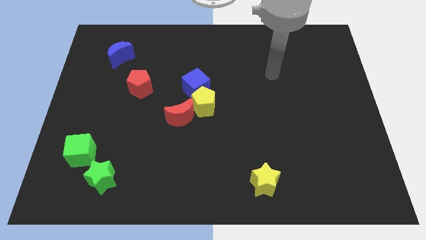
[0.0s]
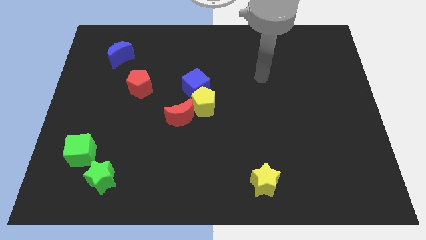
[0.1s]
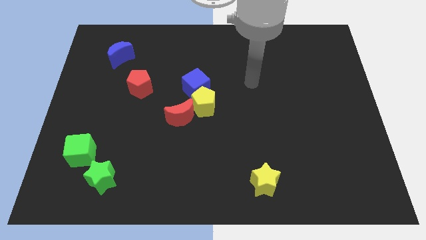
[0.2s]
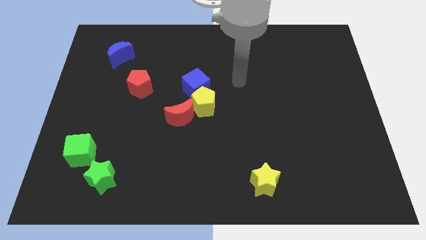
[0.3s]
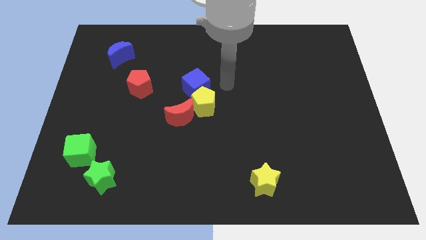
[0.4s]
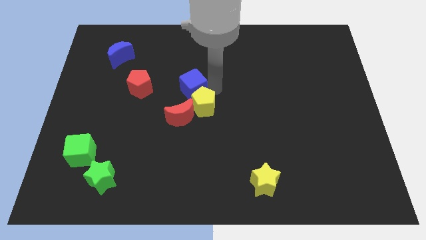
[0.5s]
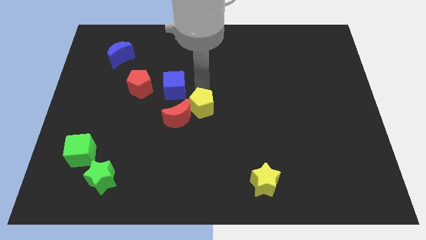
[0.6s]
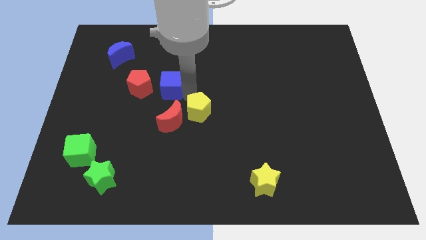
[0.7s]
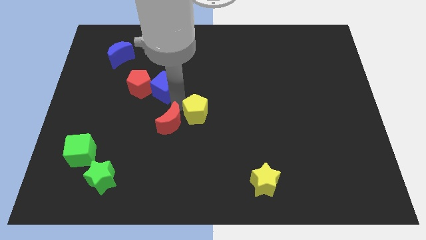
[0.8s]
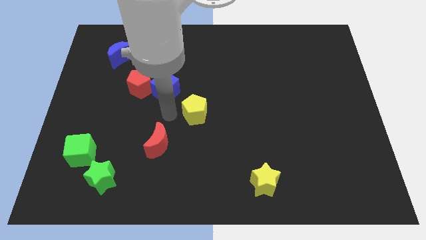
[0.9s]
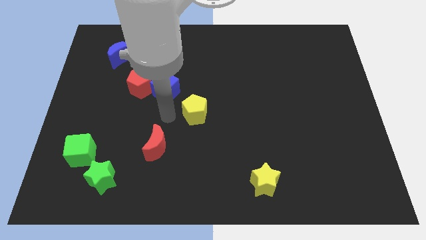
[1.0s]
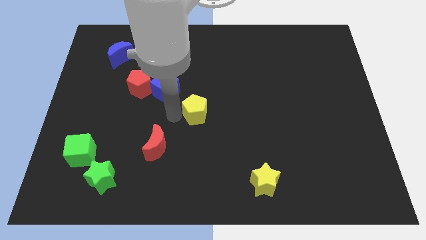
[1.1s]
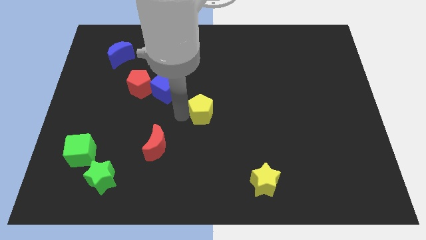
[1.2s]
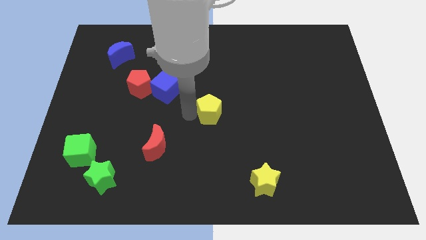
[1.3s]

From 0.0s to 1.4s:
move the yellow pentagon away from the blue cube and red moon

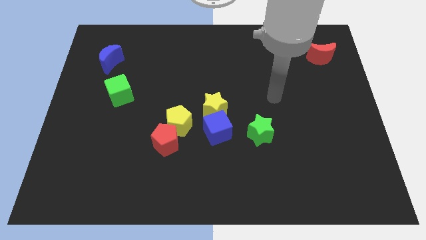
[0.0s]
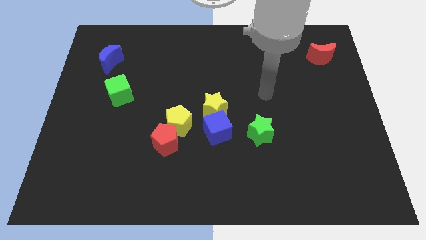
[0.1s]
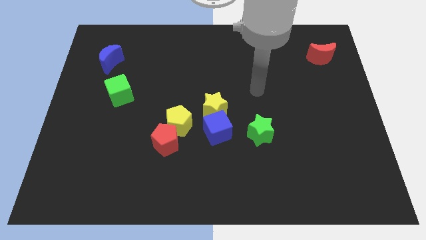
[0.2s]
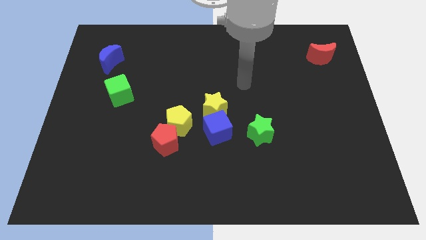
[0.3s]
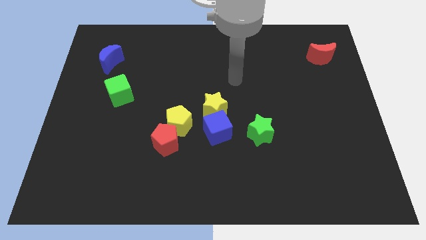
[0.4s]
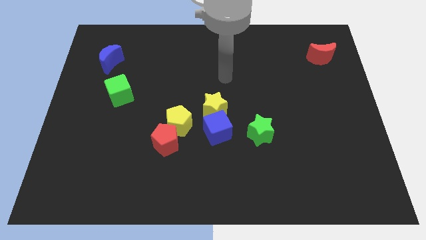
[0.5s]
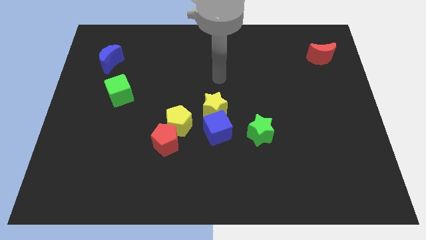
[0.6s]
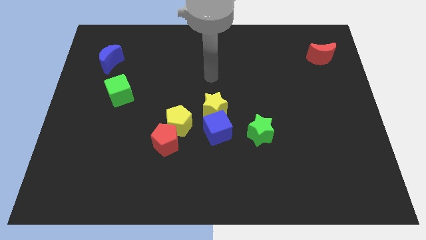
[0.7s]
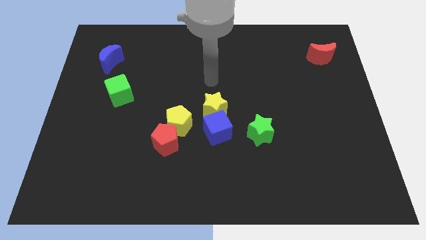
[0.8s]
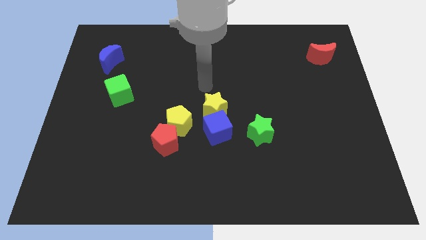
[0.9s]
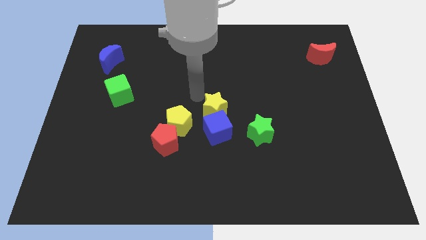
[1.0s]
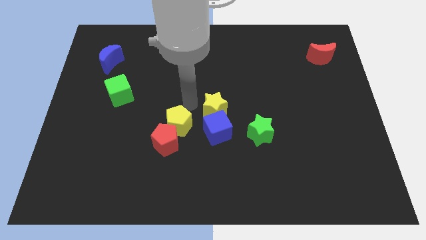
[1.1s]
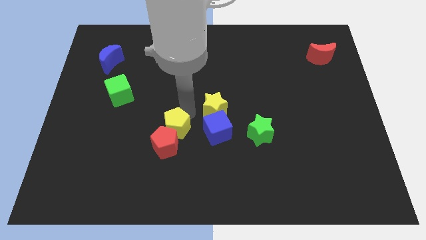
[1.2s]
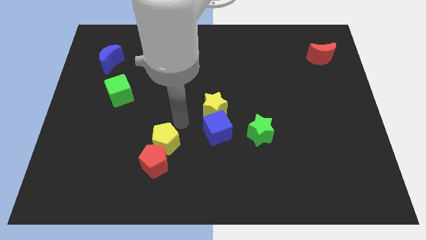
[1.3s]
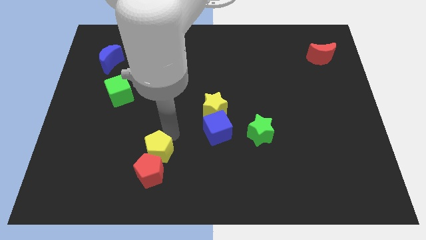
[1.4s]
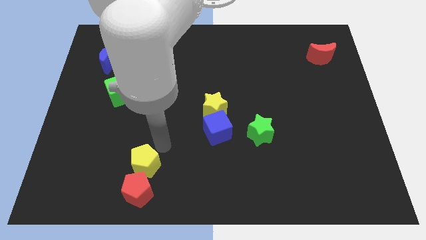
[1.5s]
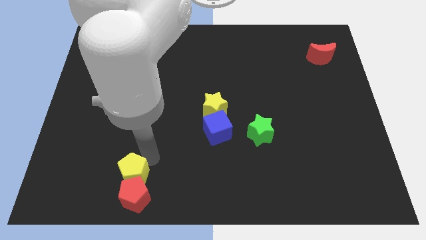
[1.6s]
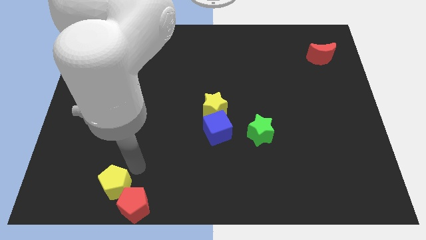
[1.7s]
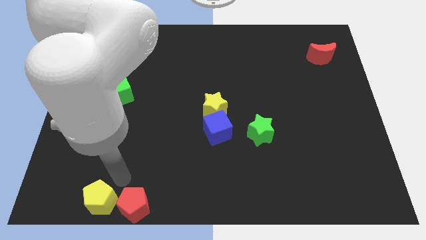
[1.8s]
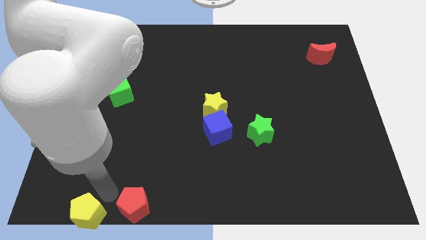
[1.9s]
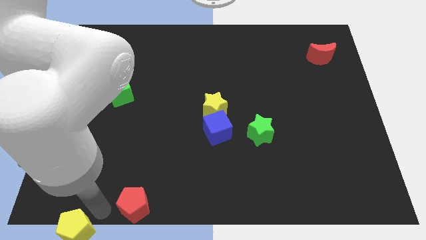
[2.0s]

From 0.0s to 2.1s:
move the red pentagon away from the yellow pentagon

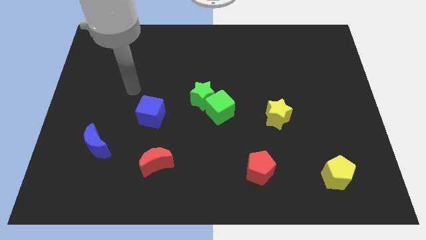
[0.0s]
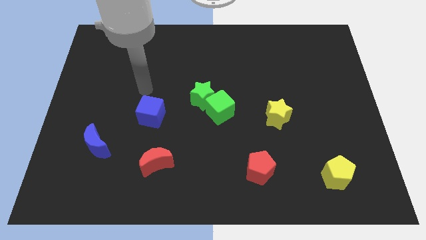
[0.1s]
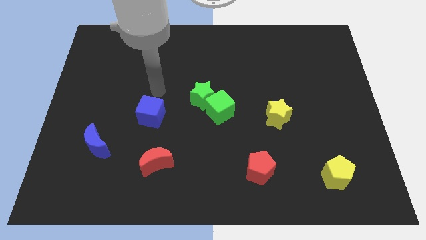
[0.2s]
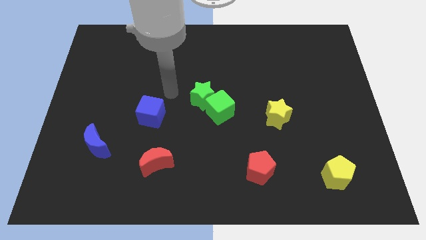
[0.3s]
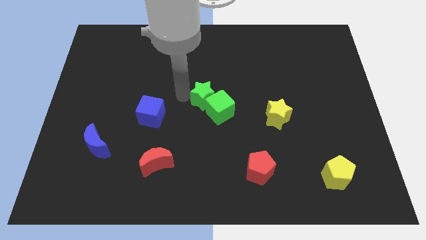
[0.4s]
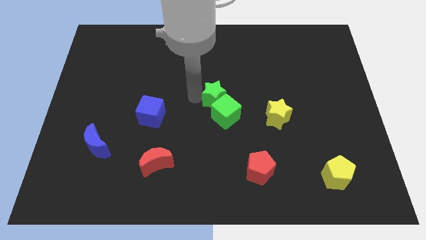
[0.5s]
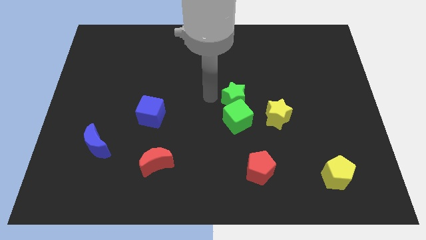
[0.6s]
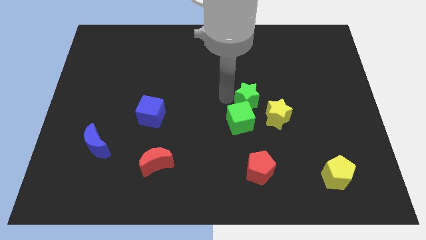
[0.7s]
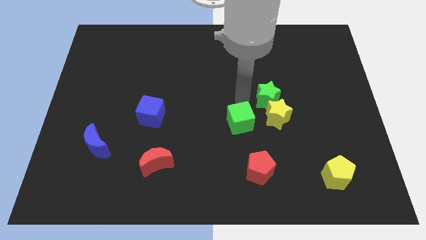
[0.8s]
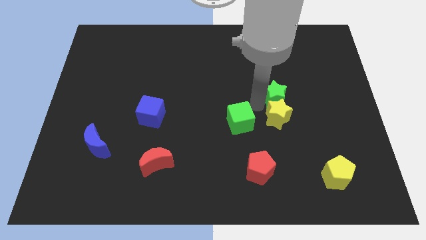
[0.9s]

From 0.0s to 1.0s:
separate the green cube from the green star

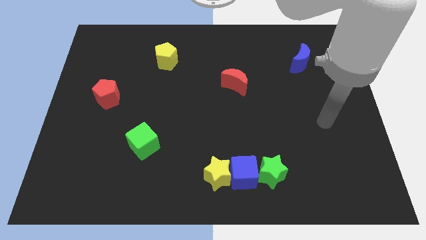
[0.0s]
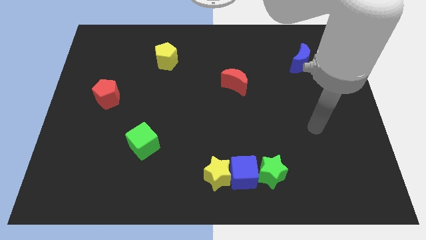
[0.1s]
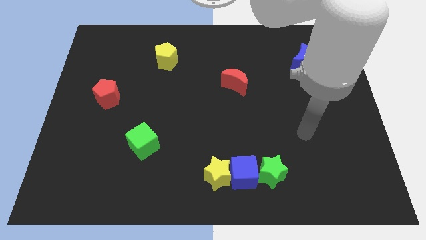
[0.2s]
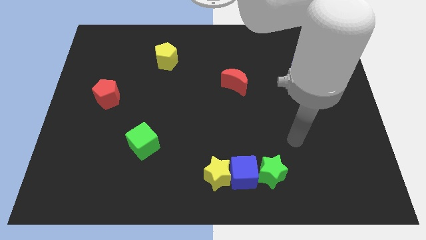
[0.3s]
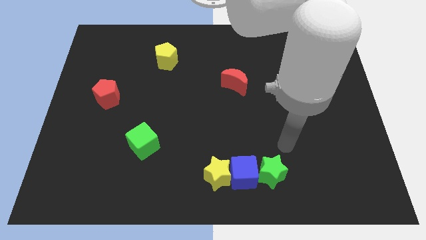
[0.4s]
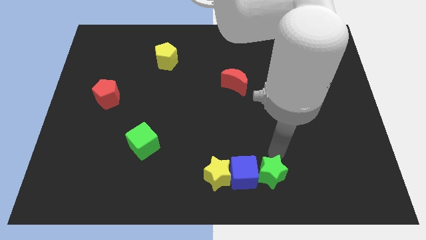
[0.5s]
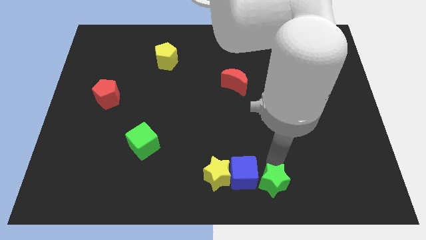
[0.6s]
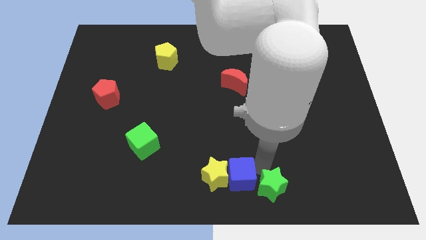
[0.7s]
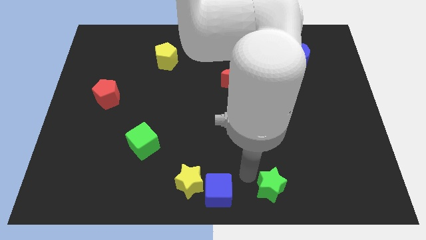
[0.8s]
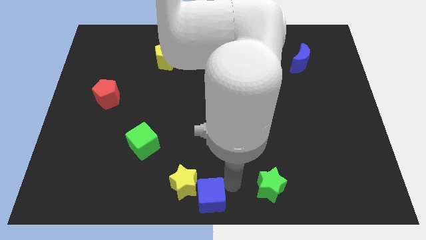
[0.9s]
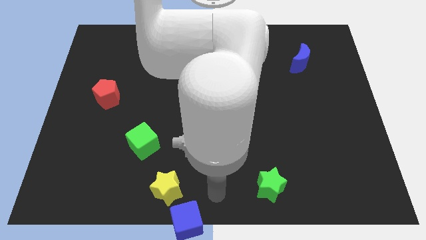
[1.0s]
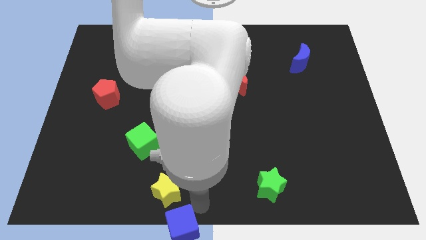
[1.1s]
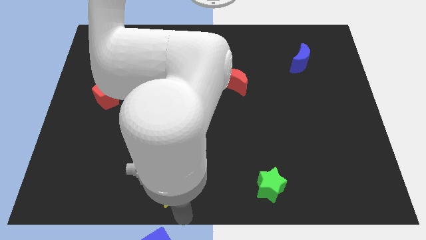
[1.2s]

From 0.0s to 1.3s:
separate the yellow star from the blue cube

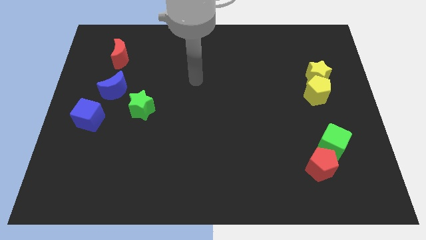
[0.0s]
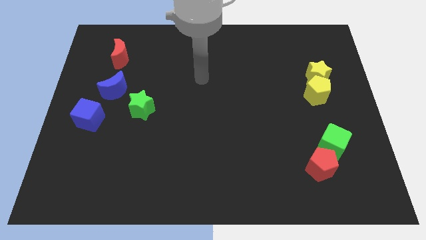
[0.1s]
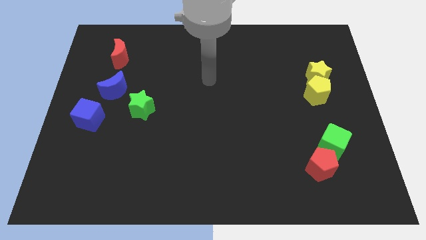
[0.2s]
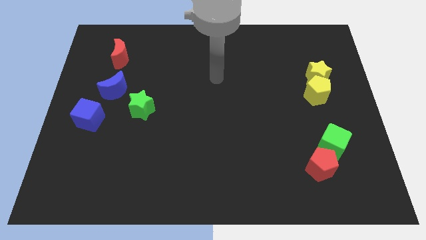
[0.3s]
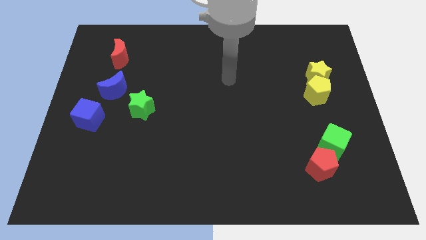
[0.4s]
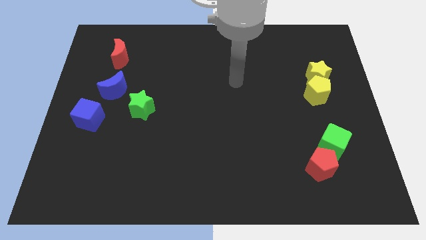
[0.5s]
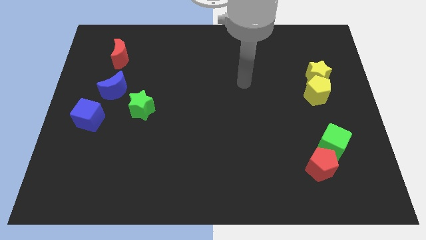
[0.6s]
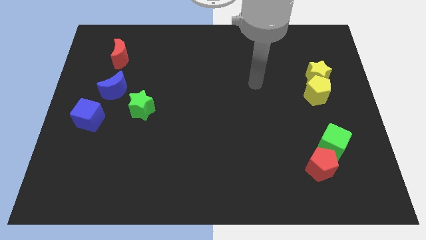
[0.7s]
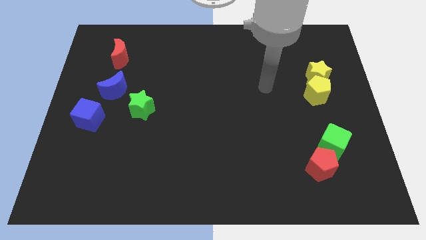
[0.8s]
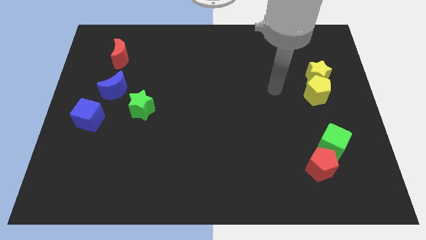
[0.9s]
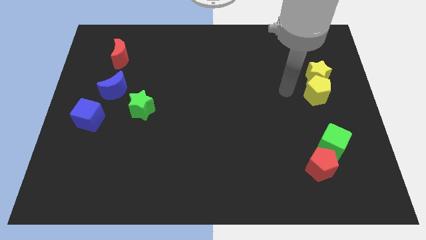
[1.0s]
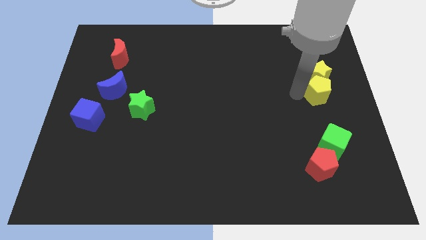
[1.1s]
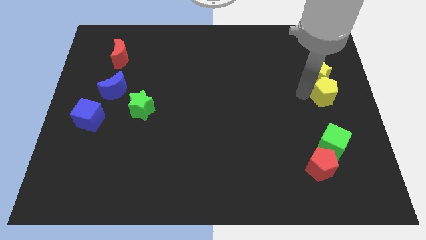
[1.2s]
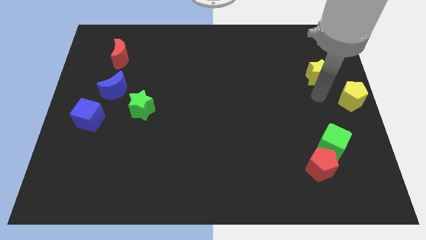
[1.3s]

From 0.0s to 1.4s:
separate the yellow star from the yellow pentagon

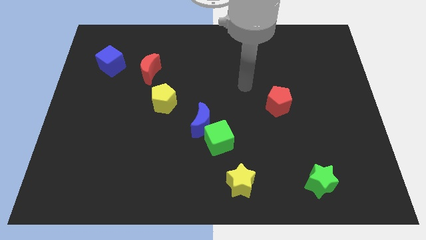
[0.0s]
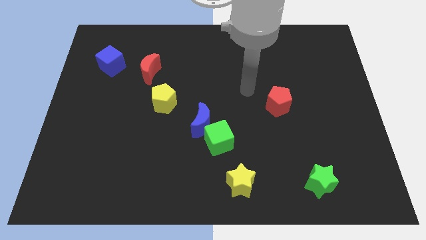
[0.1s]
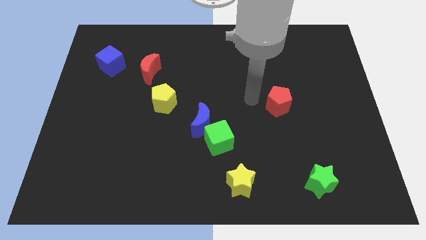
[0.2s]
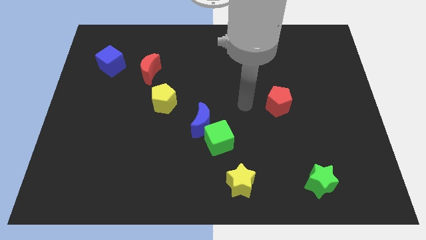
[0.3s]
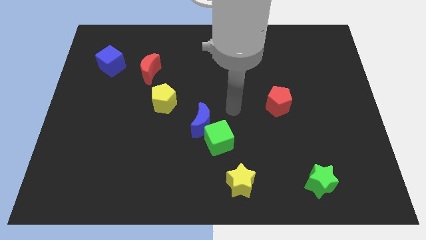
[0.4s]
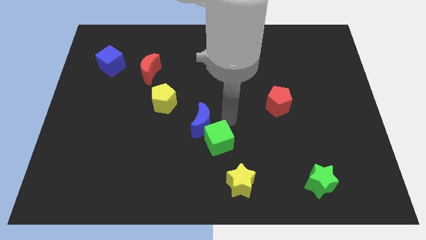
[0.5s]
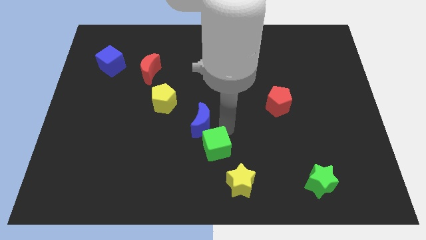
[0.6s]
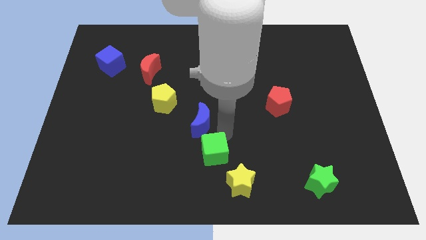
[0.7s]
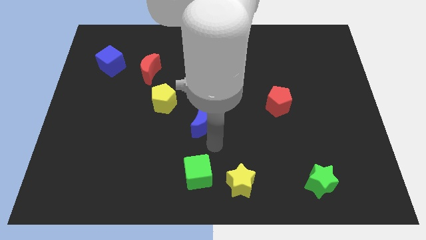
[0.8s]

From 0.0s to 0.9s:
separate the blue moon from the green cube

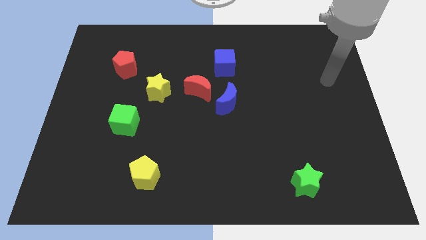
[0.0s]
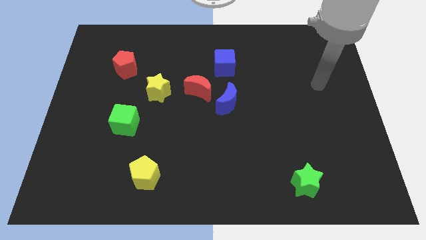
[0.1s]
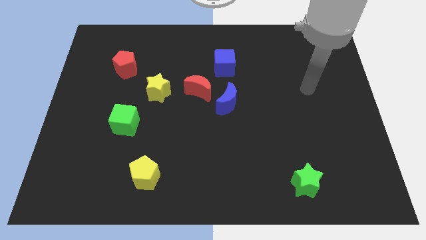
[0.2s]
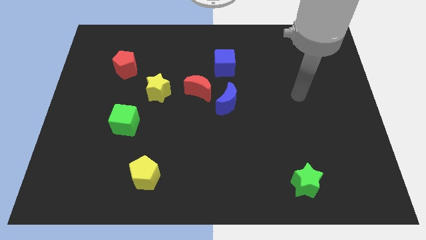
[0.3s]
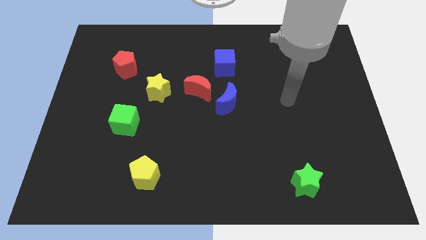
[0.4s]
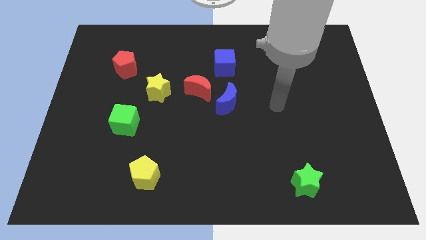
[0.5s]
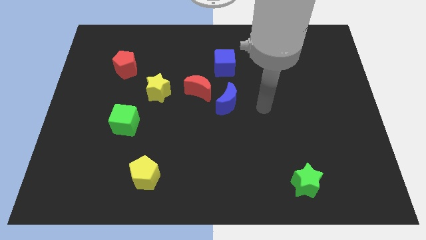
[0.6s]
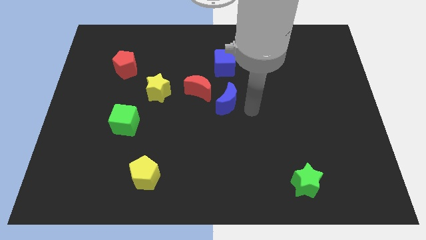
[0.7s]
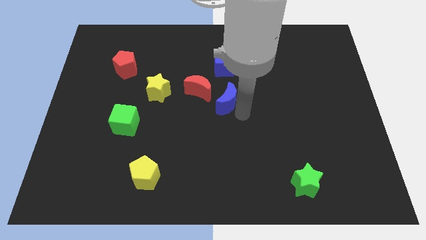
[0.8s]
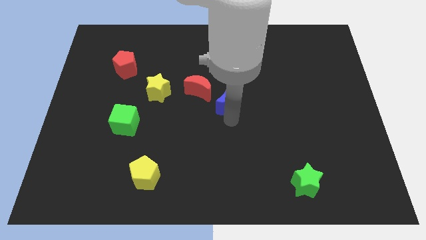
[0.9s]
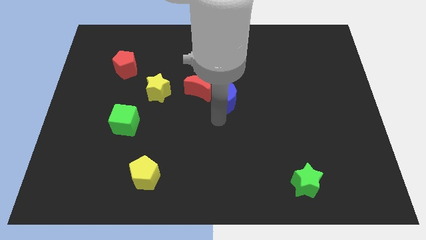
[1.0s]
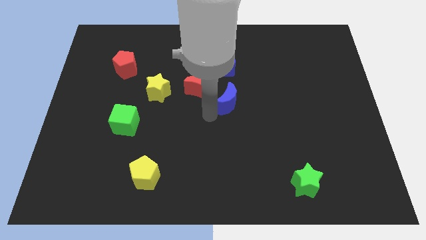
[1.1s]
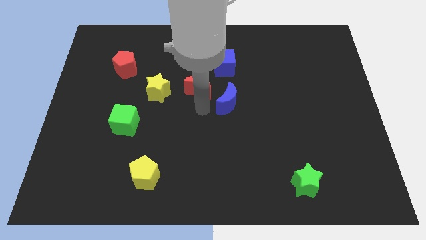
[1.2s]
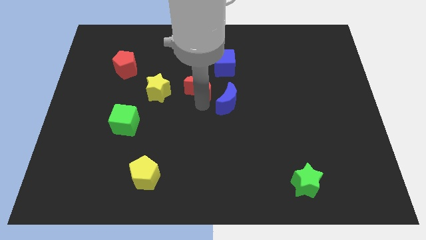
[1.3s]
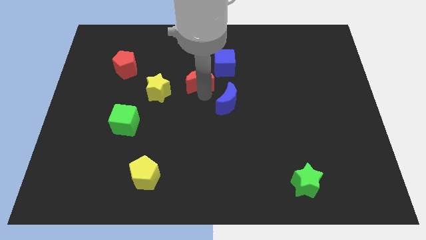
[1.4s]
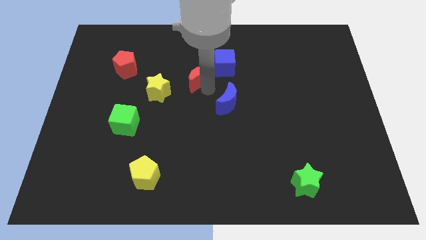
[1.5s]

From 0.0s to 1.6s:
pull the blue moon apart from the red moon
